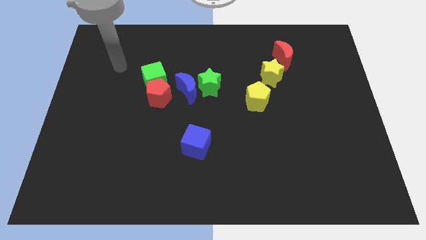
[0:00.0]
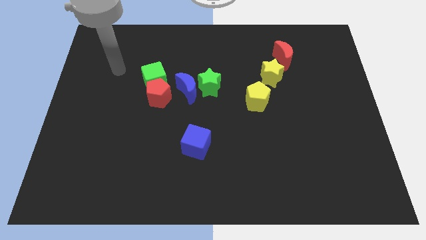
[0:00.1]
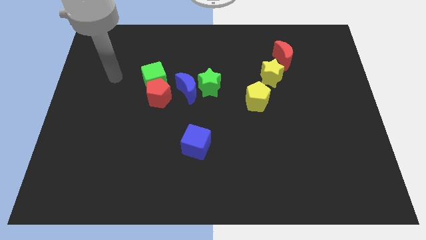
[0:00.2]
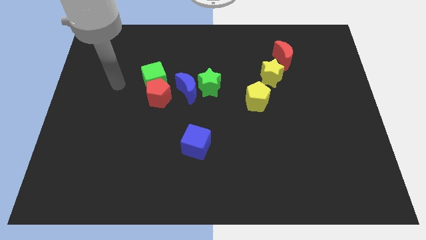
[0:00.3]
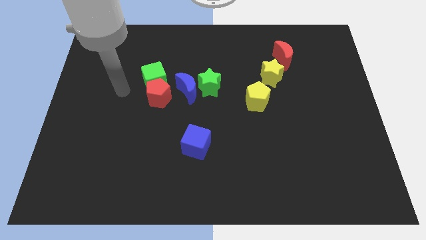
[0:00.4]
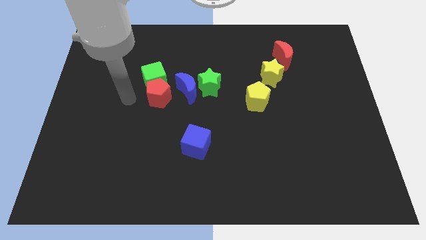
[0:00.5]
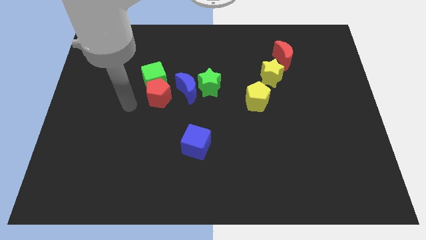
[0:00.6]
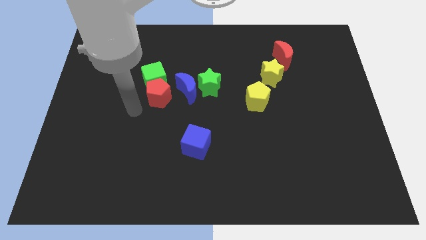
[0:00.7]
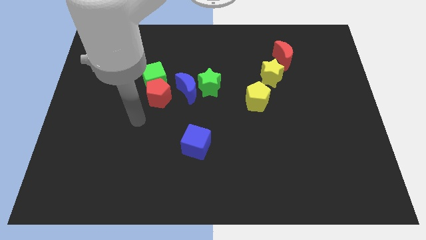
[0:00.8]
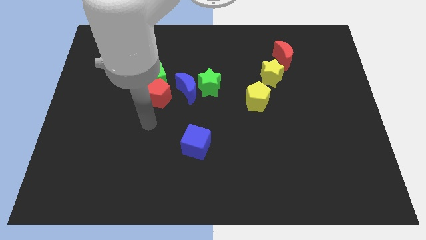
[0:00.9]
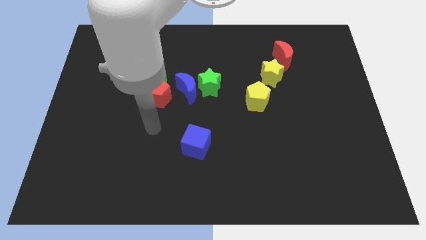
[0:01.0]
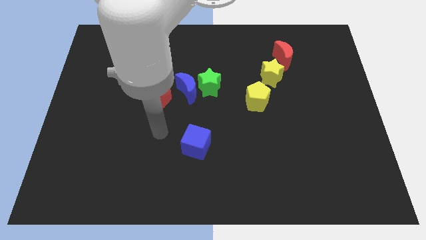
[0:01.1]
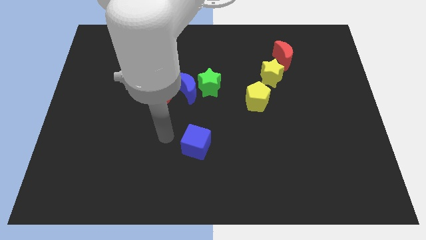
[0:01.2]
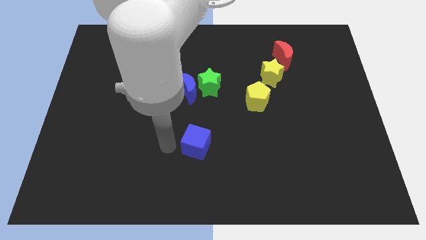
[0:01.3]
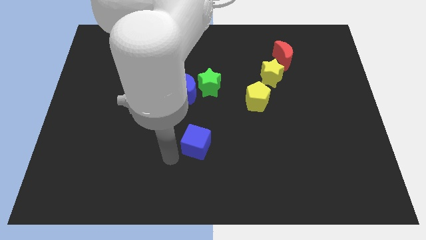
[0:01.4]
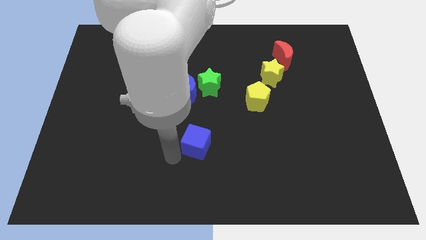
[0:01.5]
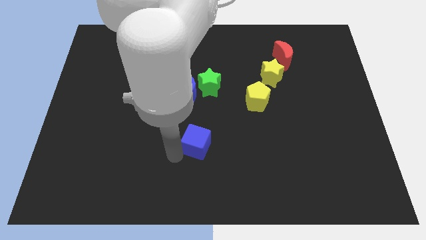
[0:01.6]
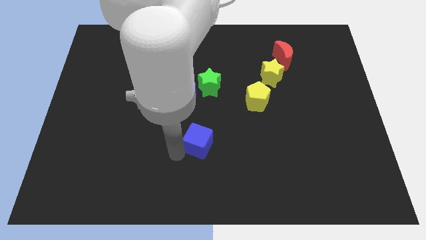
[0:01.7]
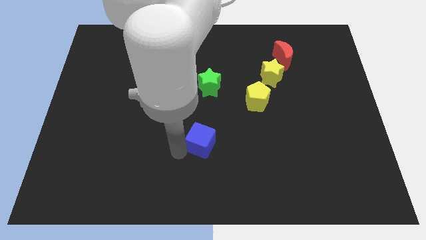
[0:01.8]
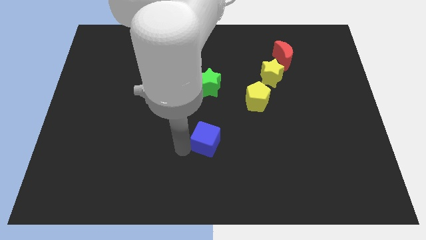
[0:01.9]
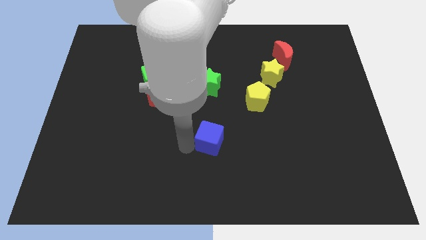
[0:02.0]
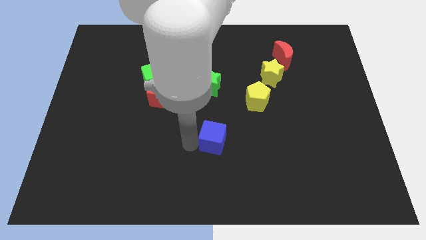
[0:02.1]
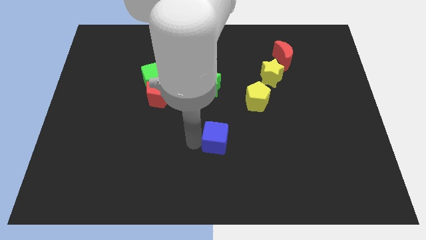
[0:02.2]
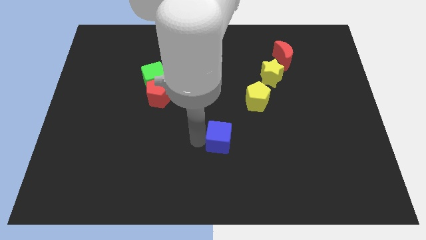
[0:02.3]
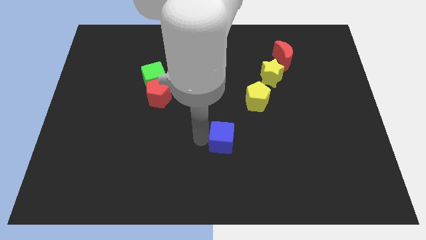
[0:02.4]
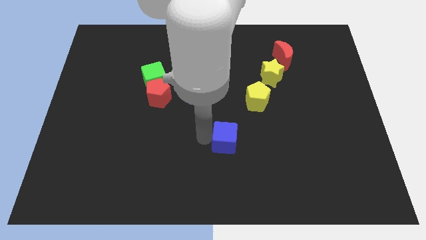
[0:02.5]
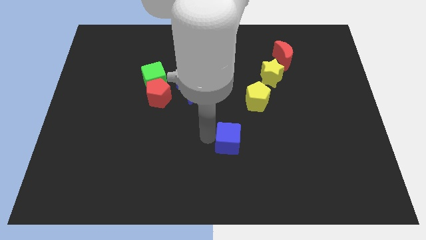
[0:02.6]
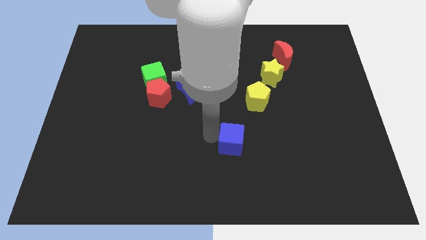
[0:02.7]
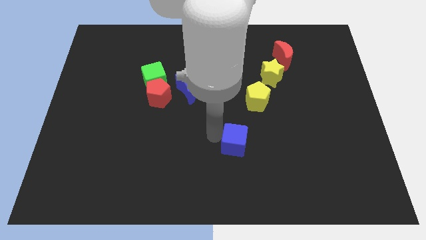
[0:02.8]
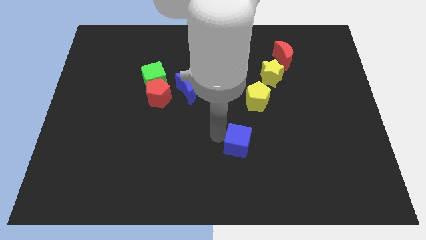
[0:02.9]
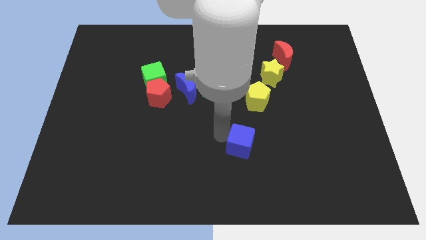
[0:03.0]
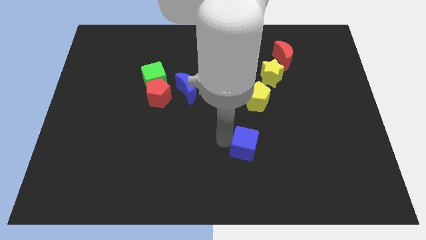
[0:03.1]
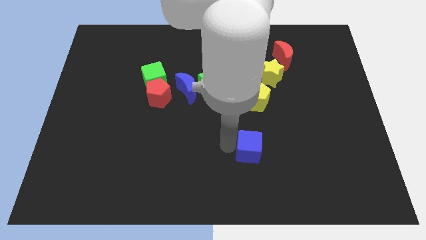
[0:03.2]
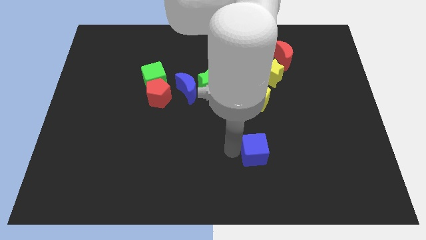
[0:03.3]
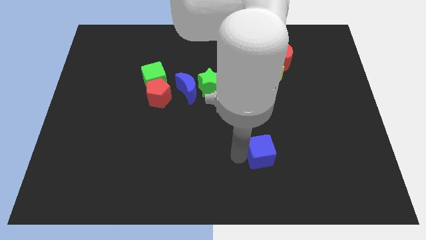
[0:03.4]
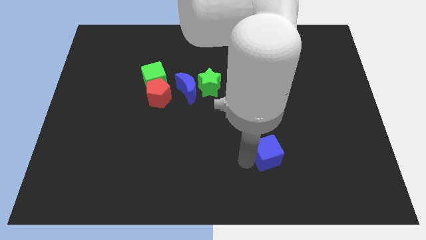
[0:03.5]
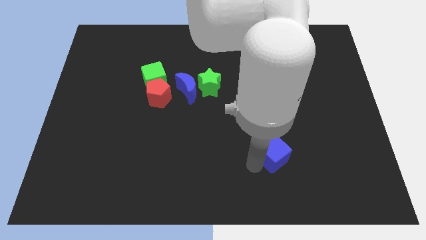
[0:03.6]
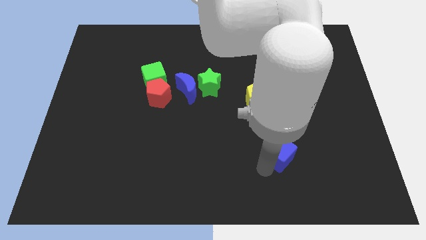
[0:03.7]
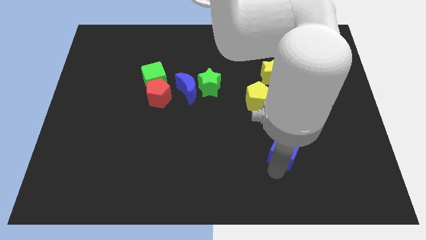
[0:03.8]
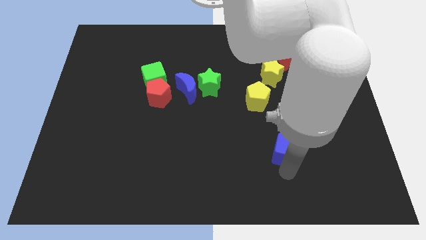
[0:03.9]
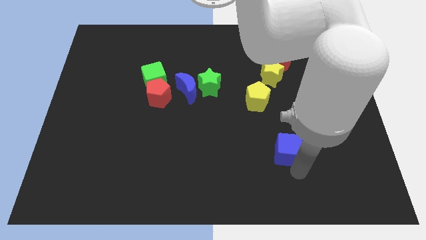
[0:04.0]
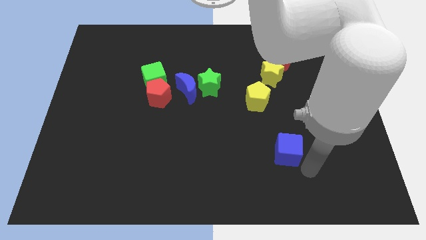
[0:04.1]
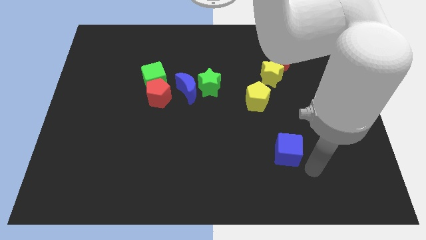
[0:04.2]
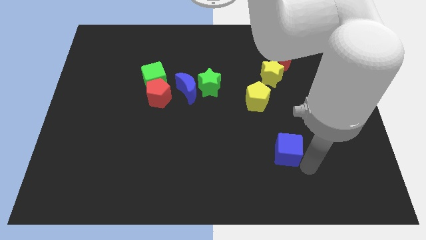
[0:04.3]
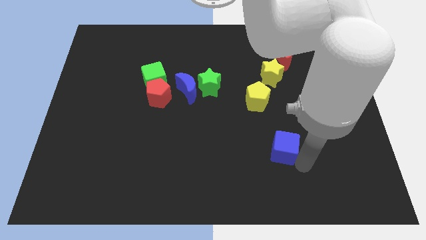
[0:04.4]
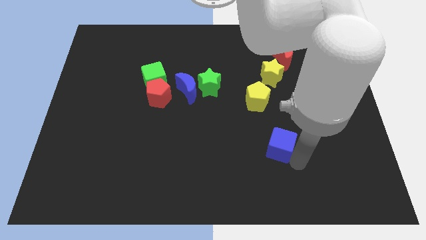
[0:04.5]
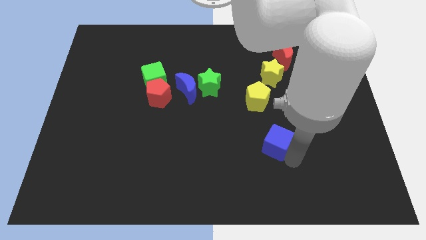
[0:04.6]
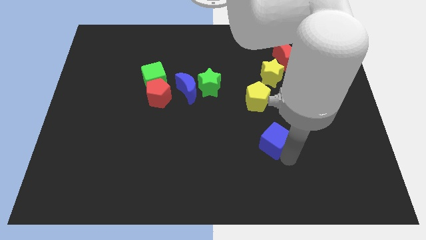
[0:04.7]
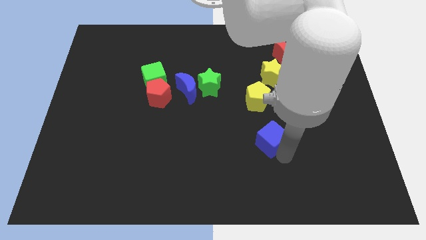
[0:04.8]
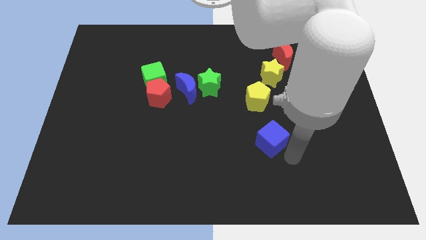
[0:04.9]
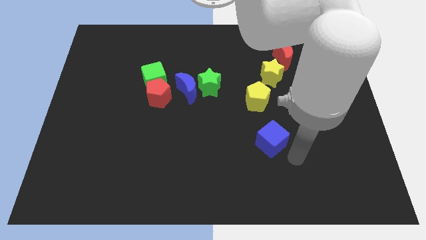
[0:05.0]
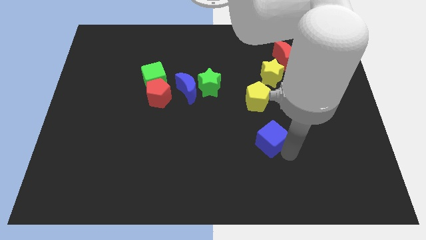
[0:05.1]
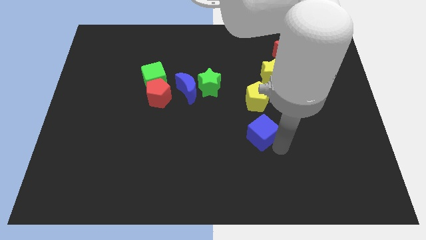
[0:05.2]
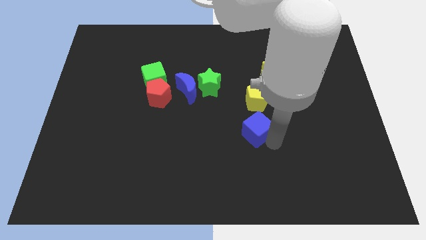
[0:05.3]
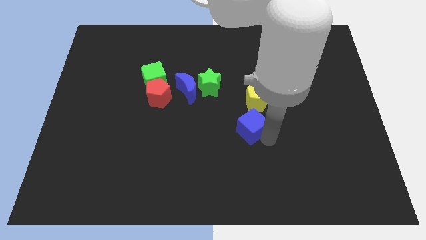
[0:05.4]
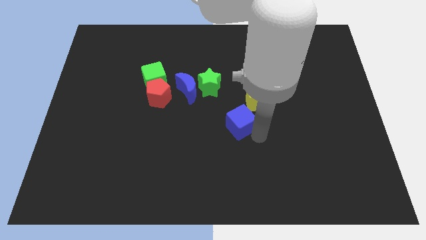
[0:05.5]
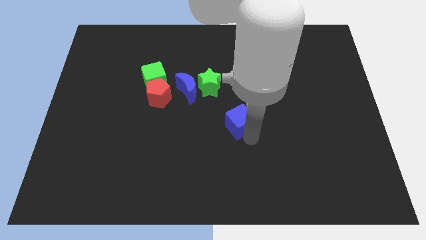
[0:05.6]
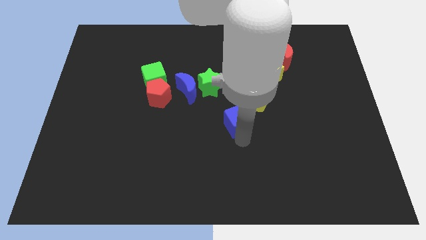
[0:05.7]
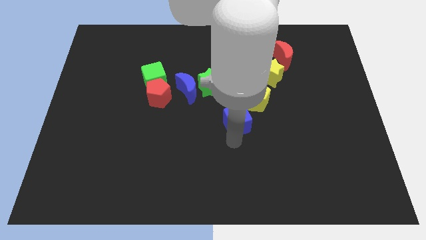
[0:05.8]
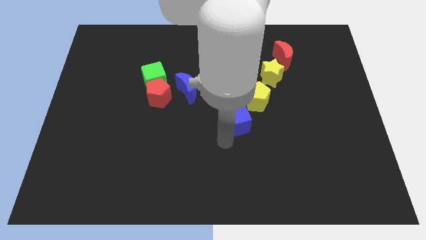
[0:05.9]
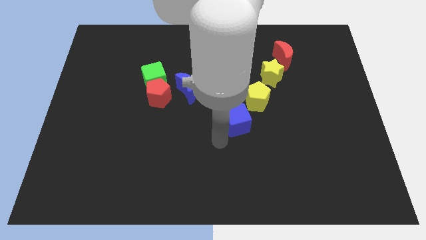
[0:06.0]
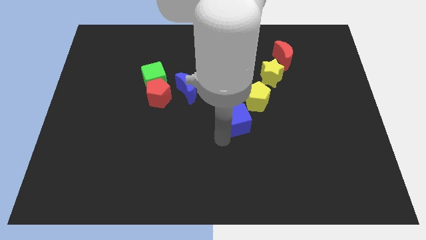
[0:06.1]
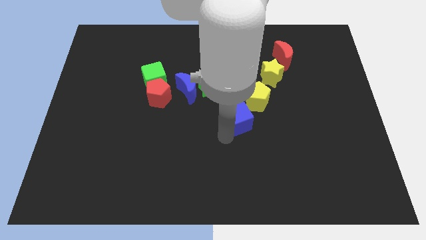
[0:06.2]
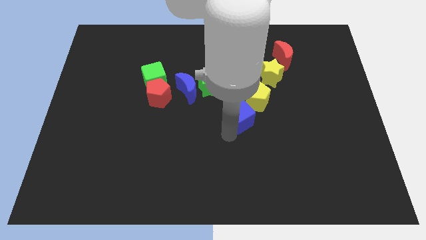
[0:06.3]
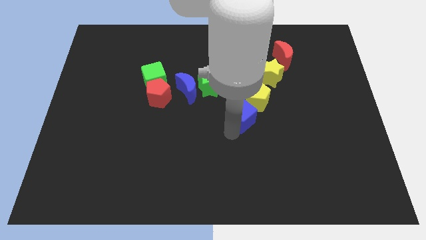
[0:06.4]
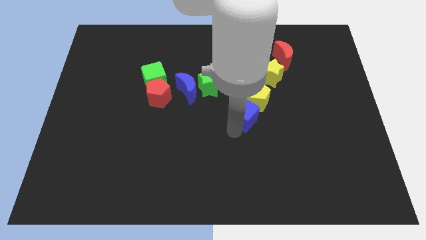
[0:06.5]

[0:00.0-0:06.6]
put the blue cube next to the yellow pentagon
